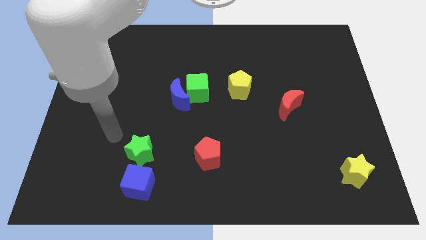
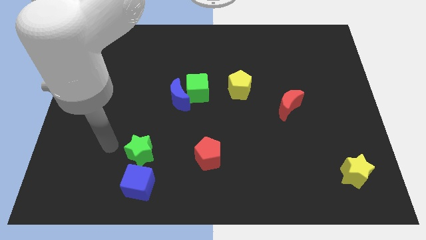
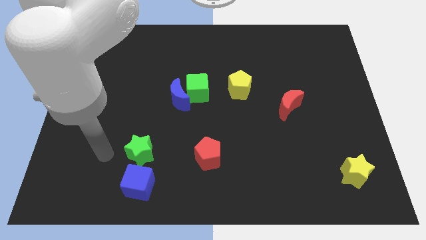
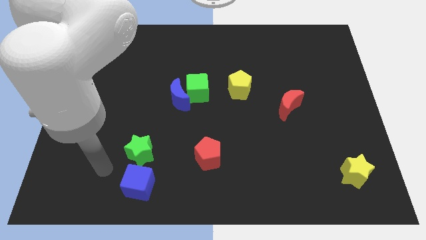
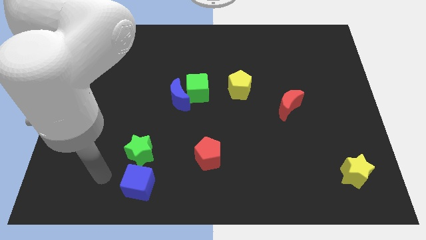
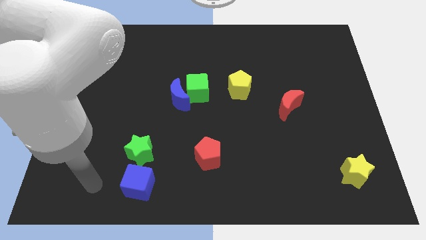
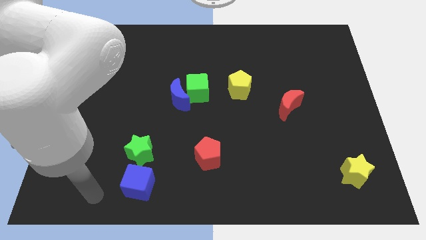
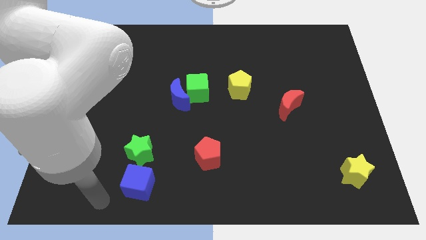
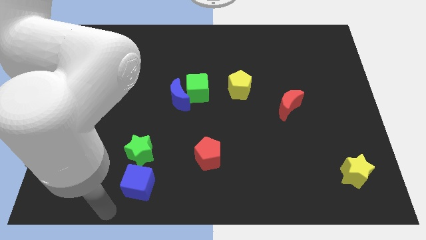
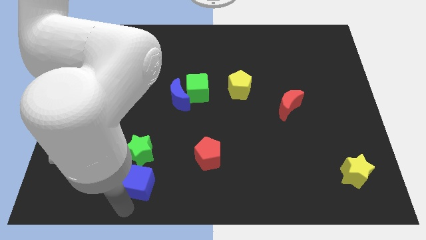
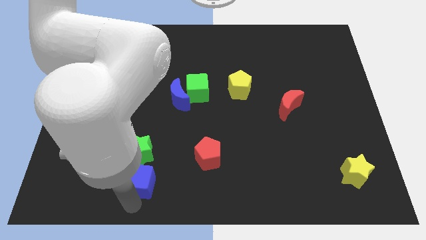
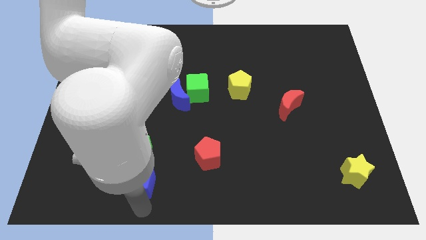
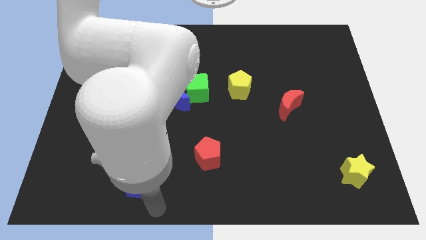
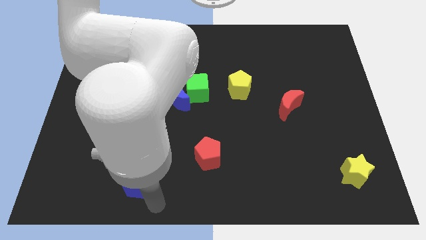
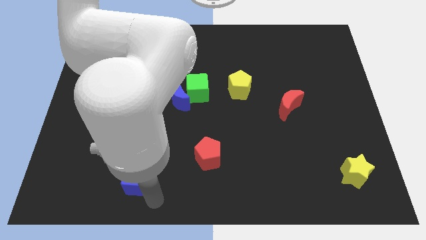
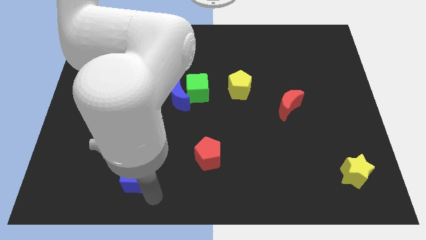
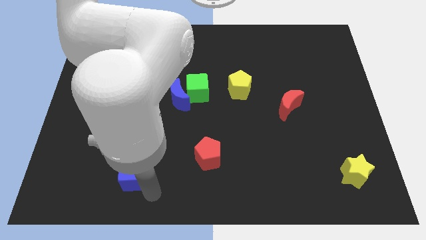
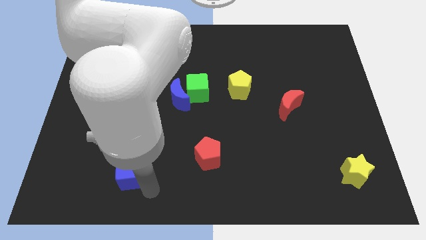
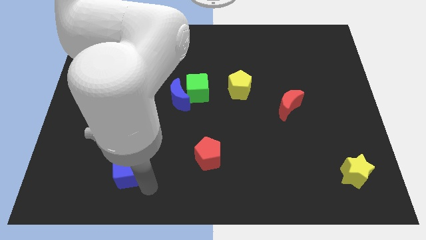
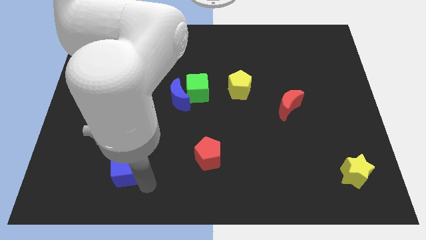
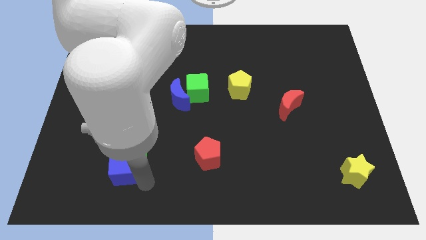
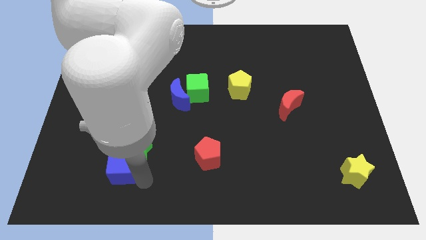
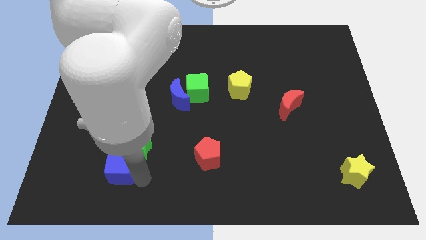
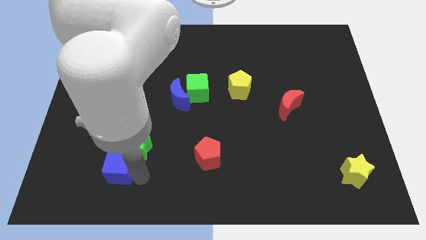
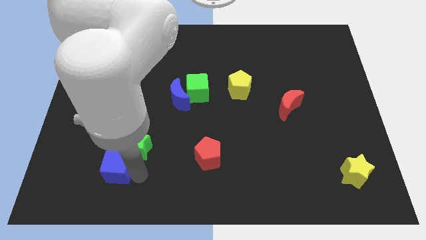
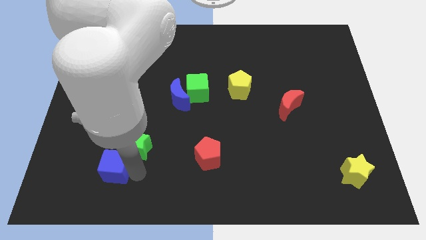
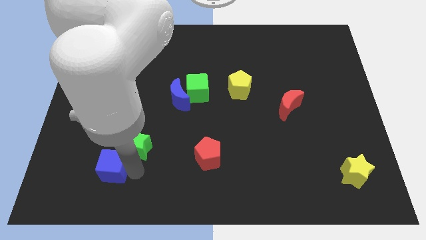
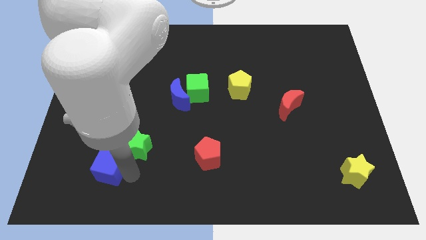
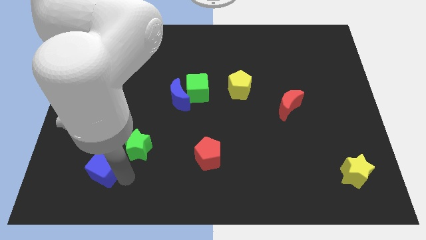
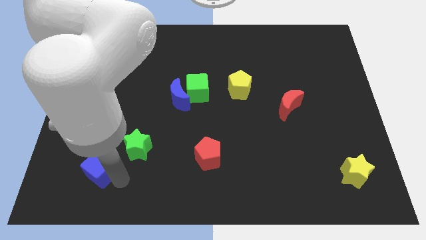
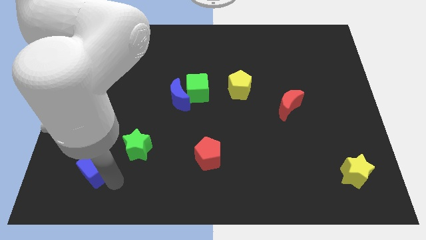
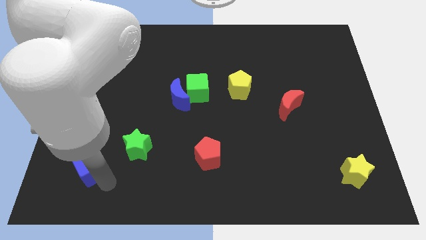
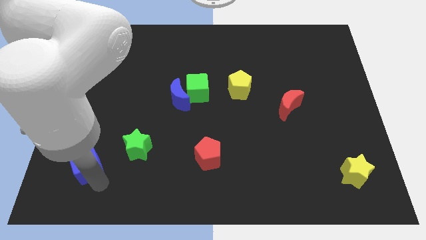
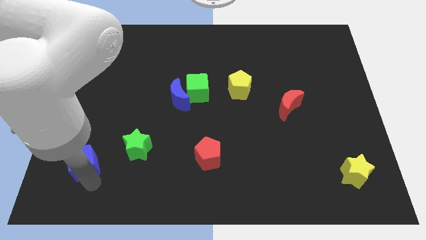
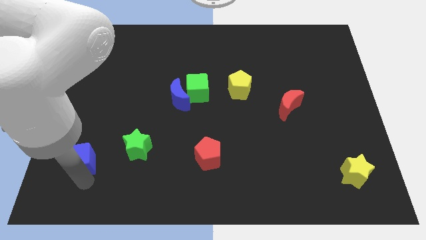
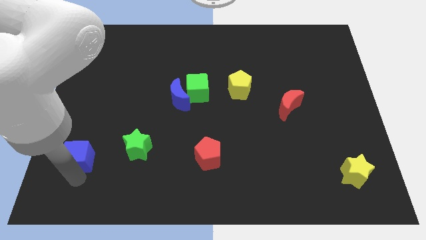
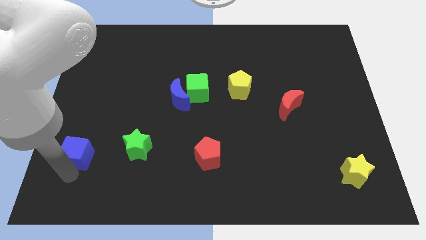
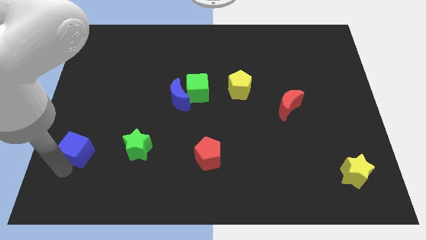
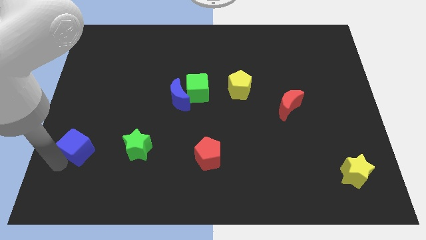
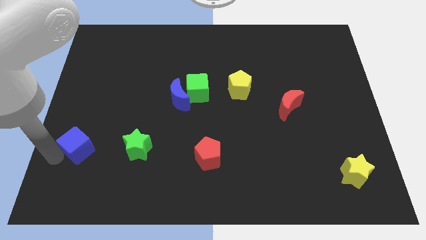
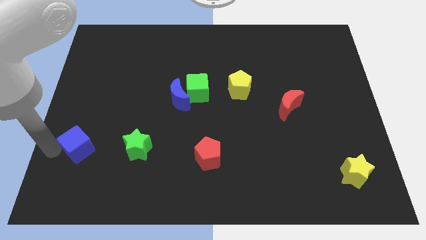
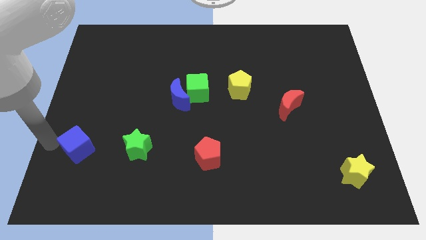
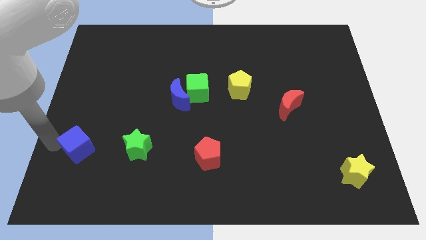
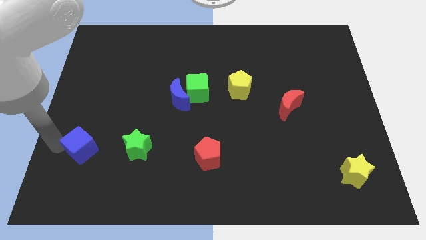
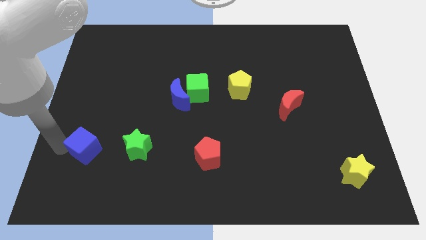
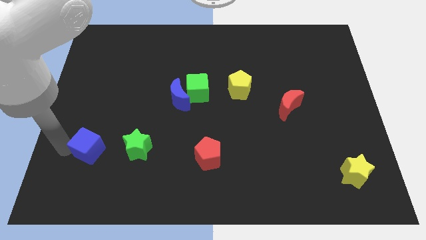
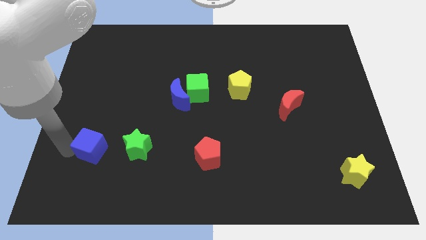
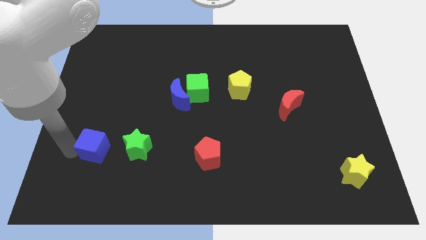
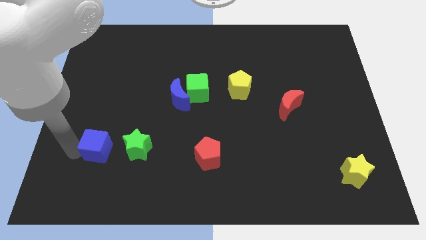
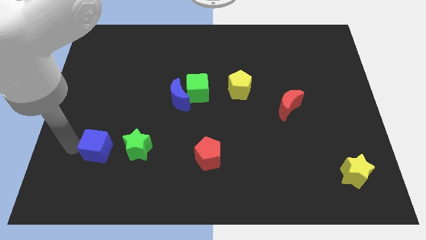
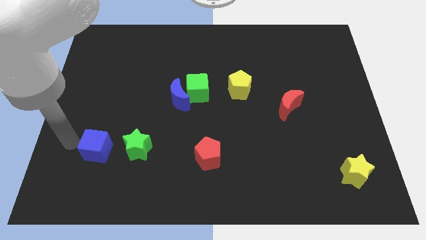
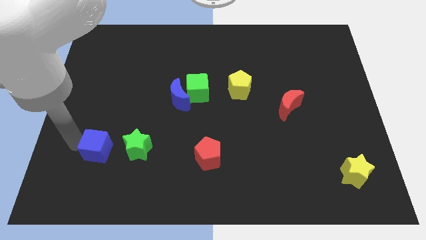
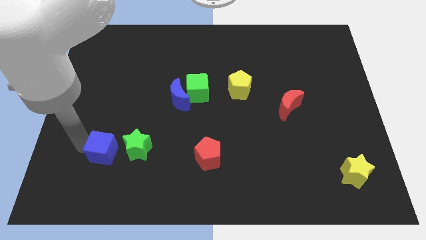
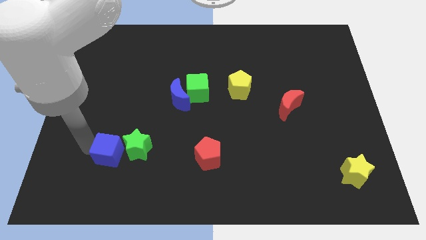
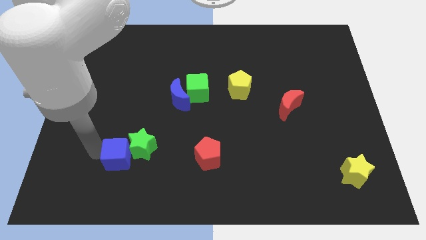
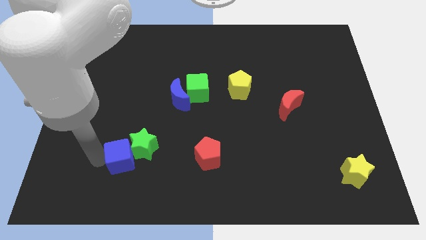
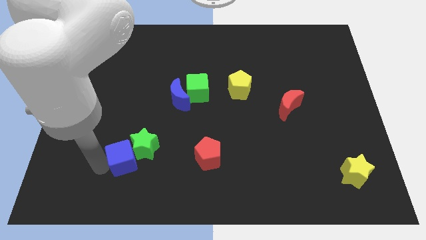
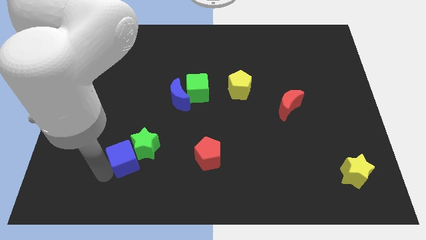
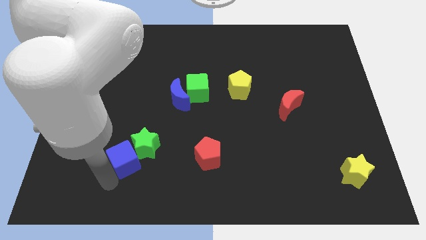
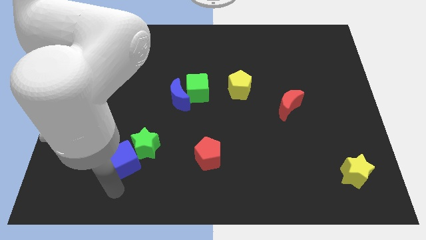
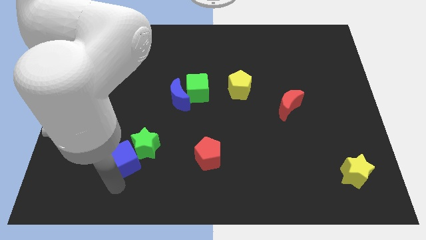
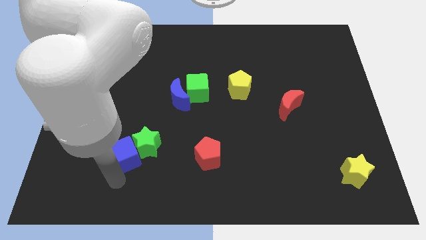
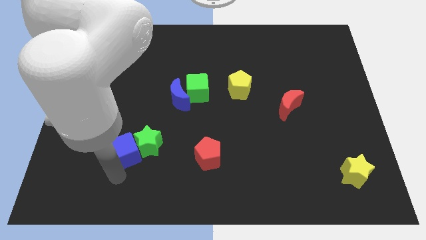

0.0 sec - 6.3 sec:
push the blue cube slightly up

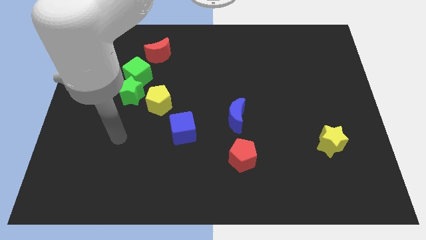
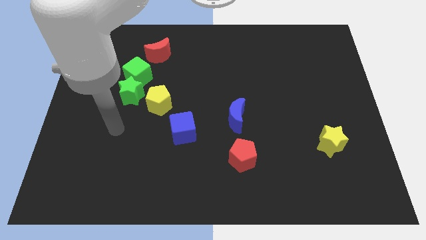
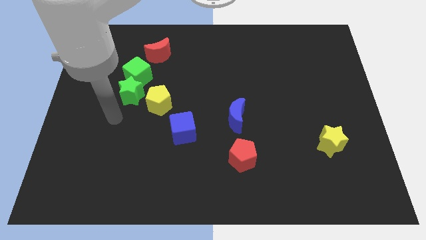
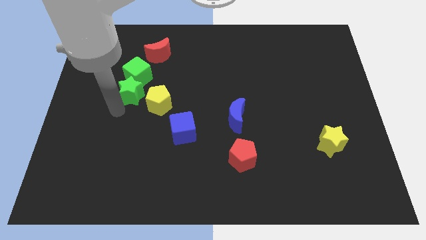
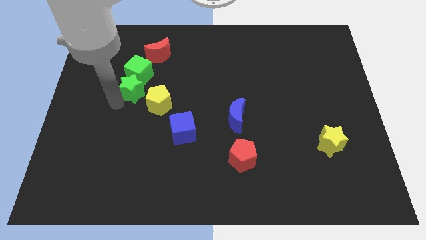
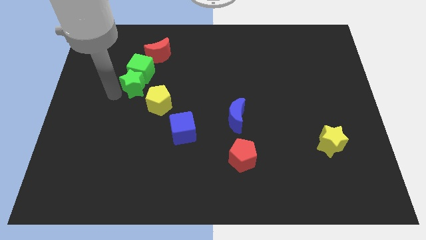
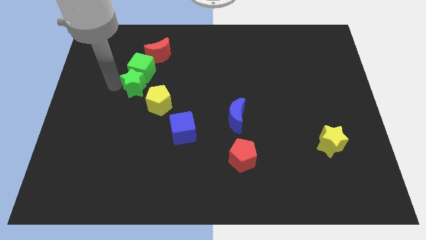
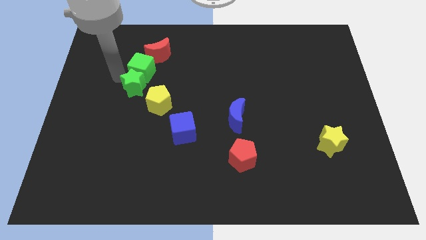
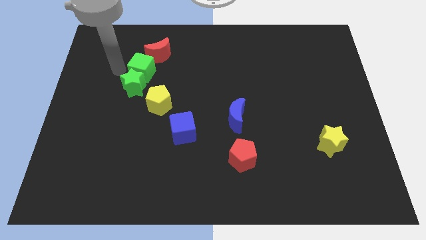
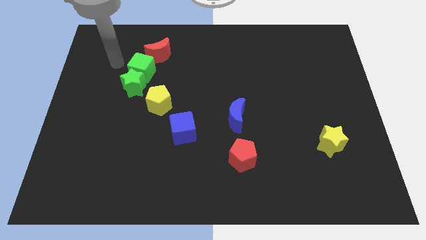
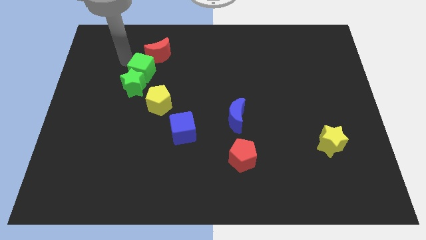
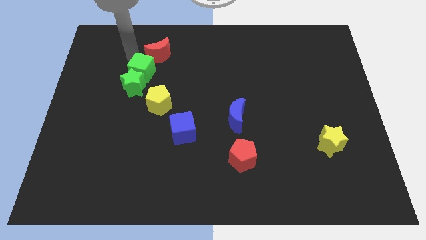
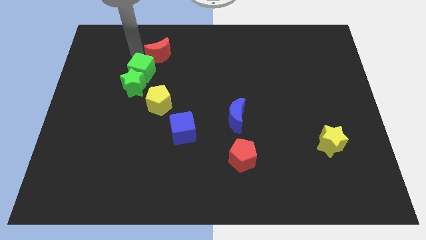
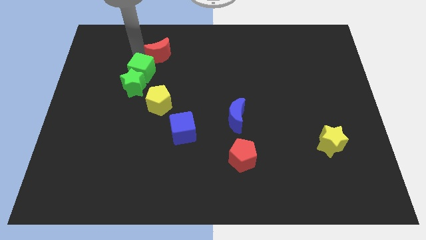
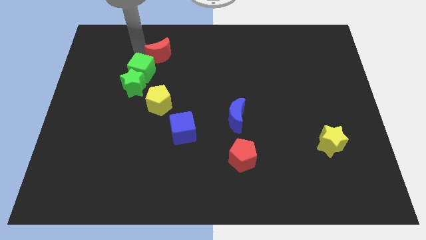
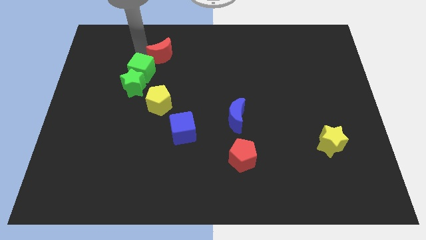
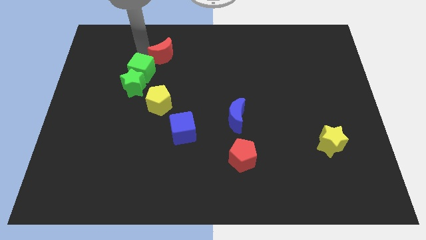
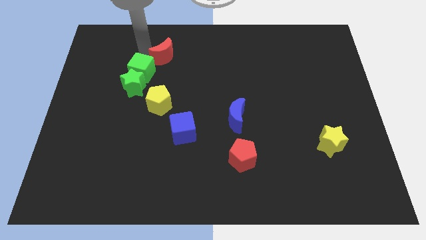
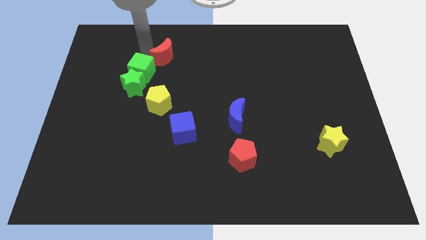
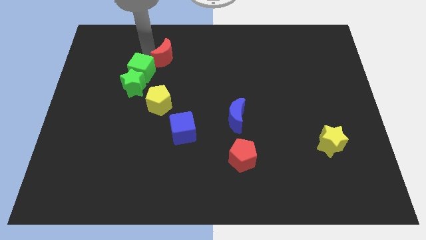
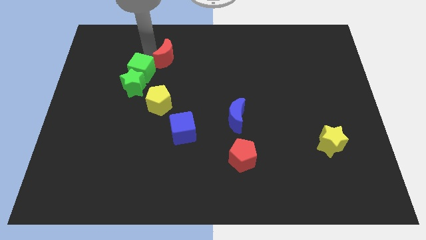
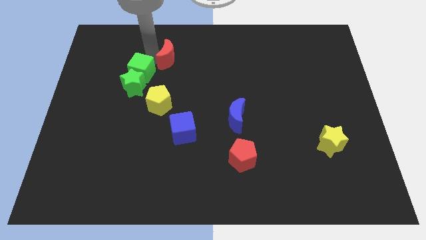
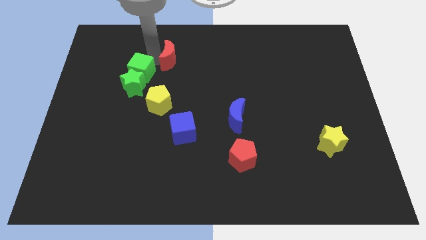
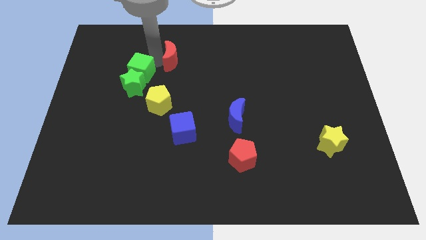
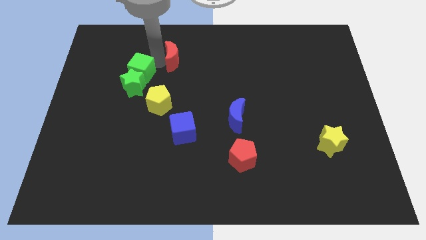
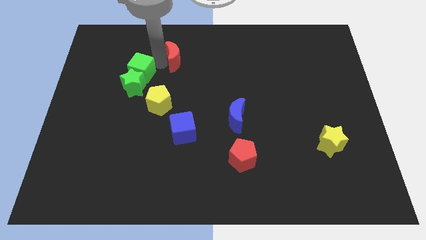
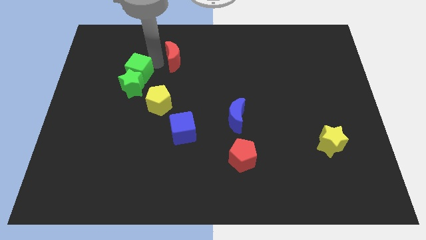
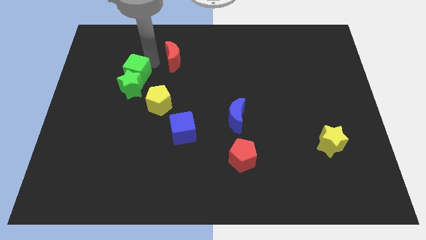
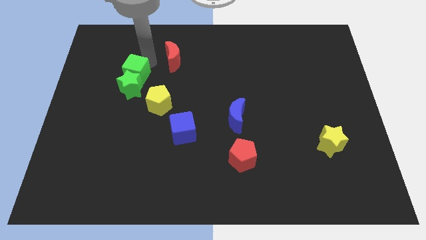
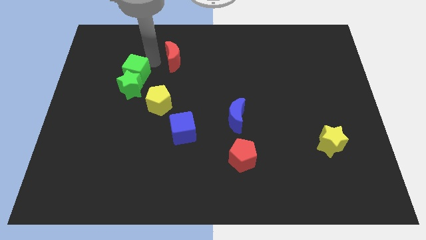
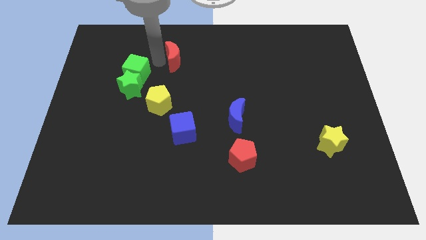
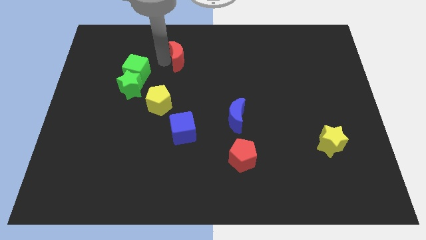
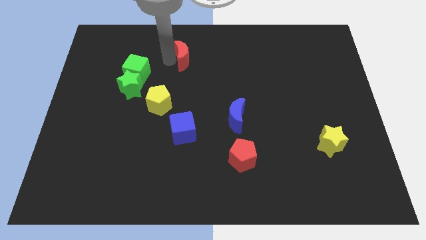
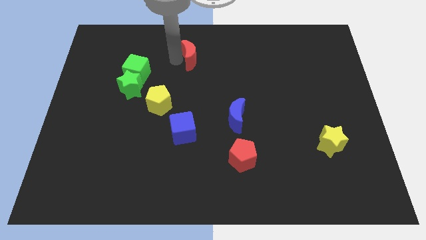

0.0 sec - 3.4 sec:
slightly slide the red moon to the right
